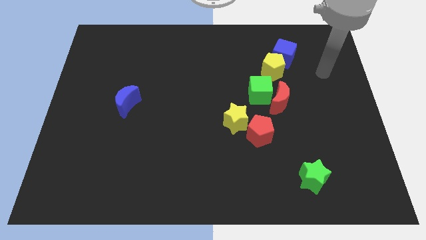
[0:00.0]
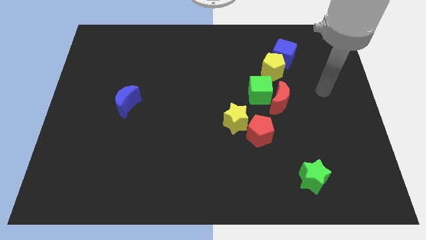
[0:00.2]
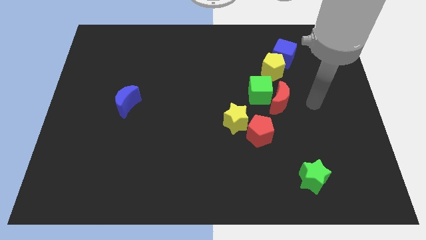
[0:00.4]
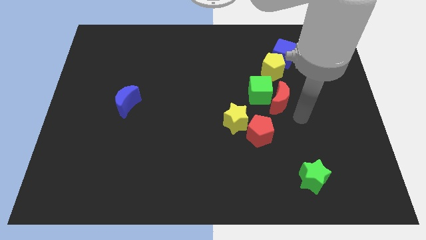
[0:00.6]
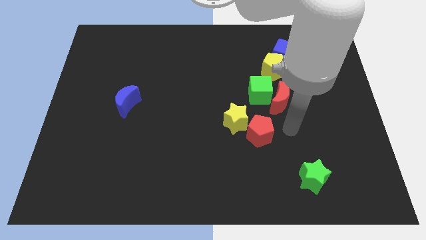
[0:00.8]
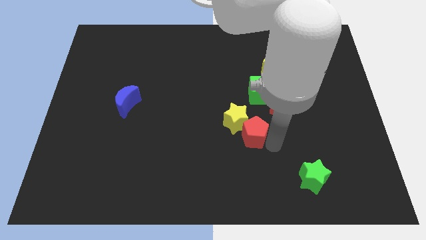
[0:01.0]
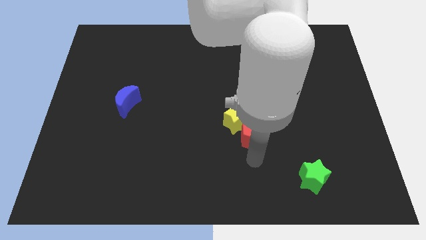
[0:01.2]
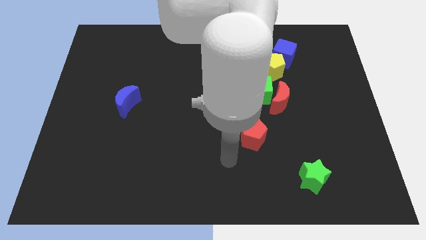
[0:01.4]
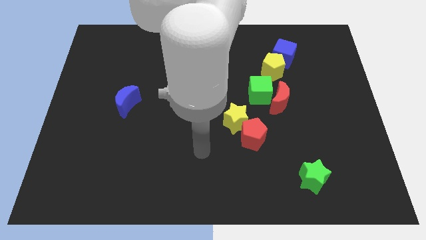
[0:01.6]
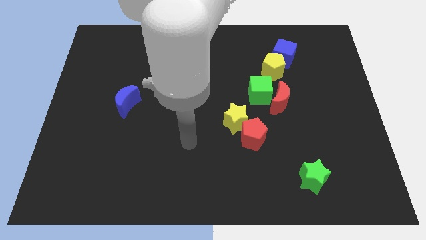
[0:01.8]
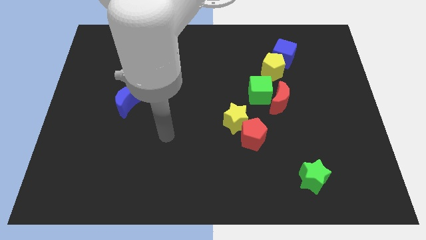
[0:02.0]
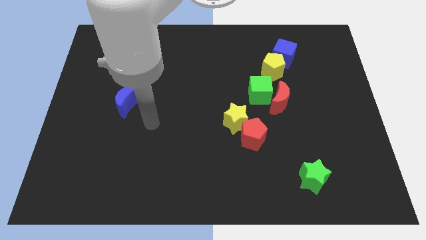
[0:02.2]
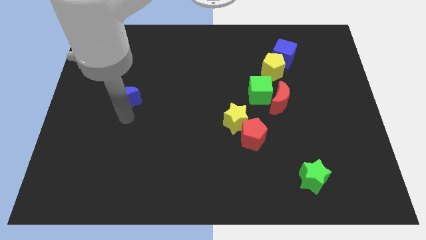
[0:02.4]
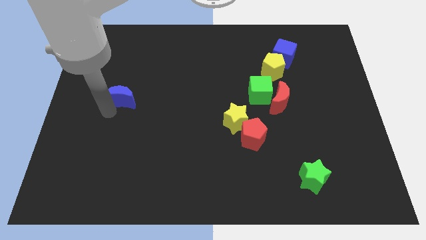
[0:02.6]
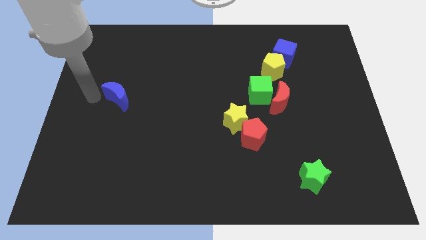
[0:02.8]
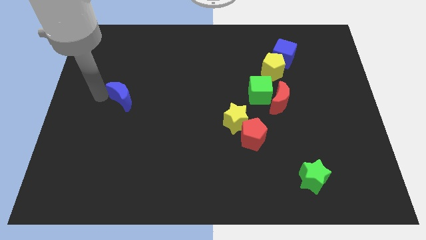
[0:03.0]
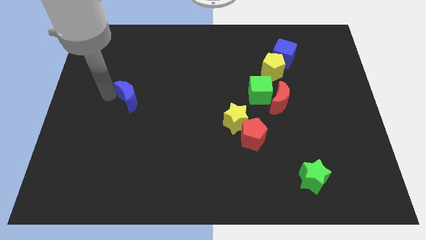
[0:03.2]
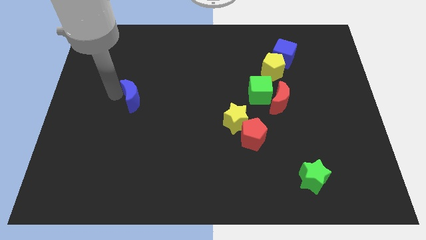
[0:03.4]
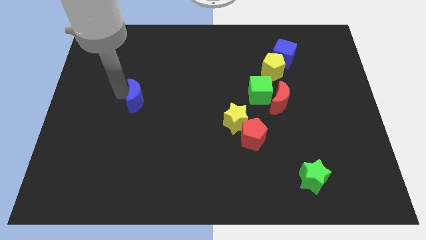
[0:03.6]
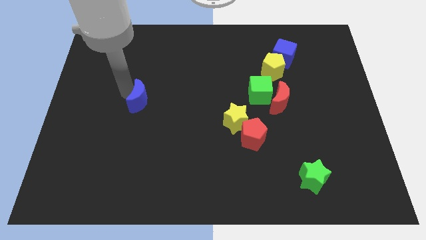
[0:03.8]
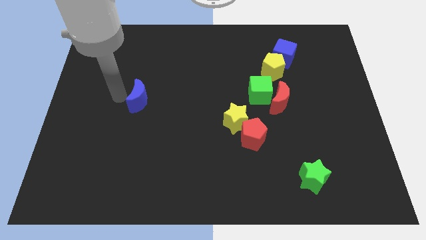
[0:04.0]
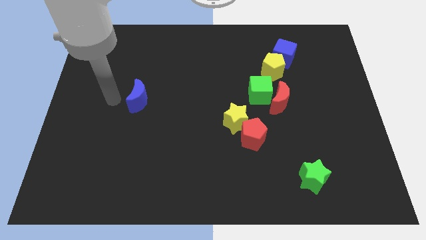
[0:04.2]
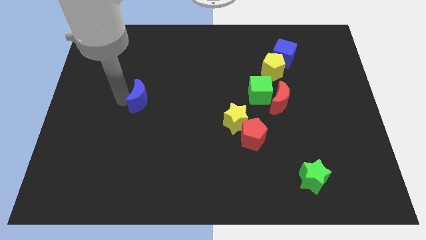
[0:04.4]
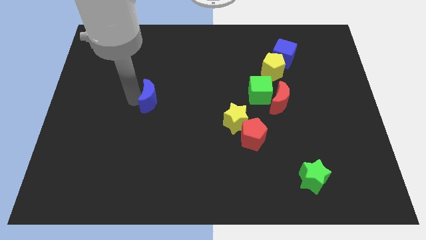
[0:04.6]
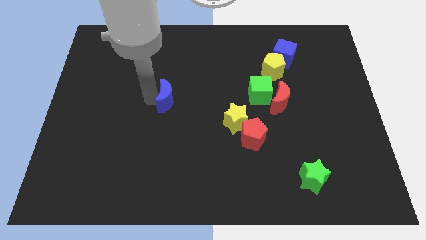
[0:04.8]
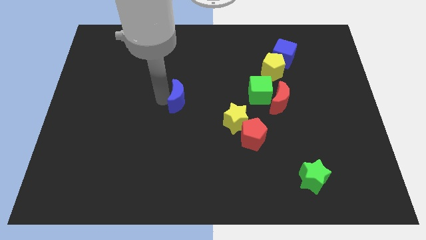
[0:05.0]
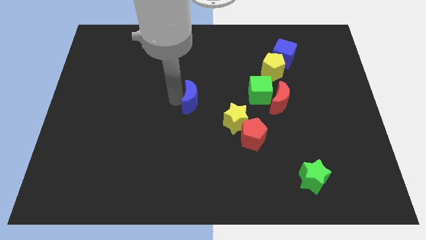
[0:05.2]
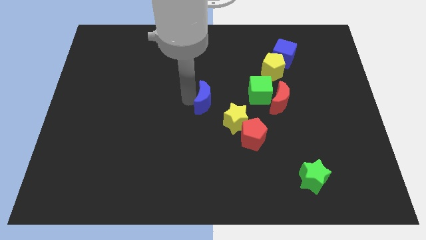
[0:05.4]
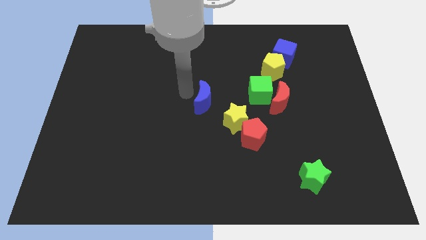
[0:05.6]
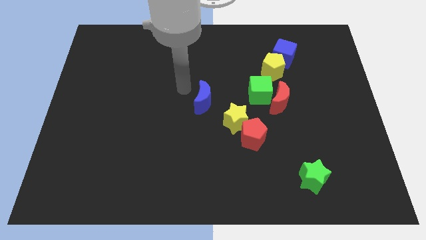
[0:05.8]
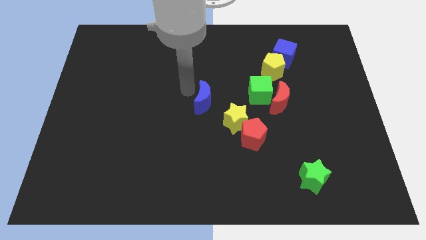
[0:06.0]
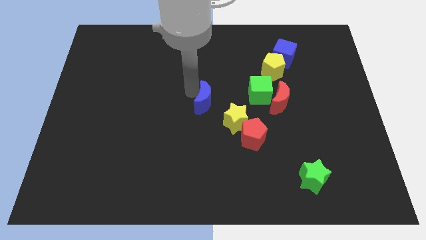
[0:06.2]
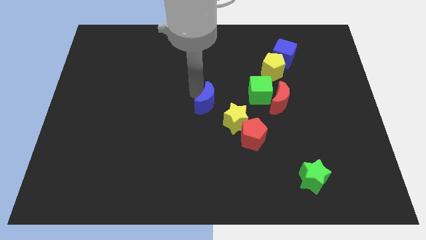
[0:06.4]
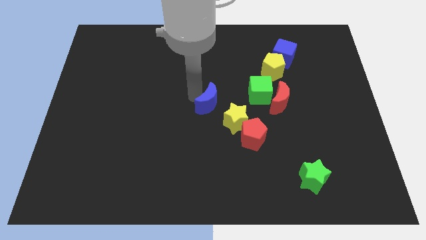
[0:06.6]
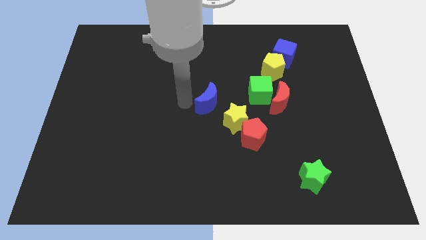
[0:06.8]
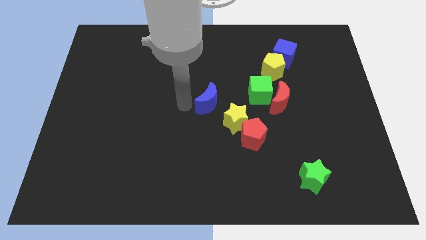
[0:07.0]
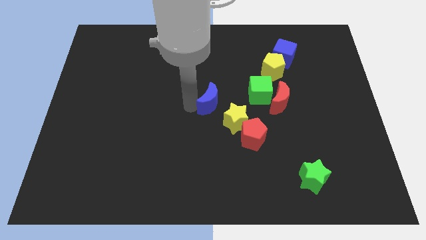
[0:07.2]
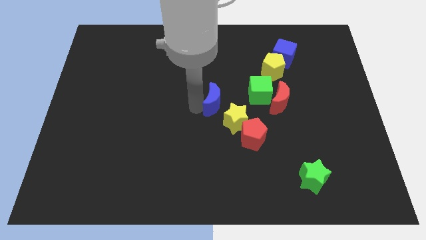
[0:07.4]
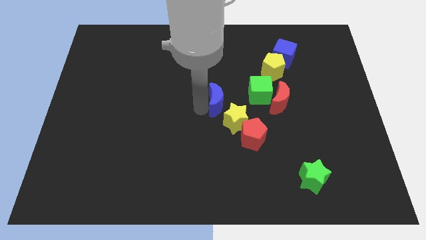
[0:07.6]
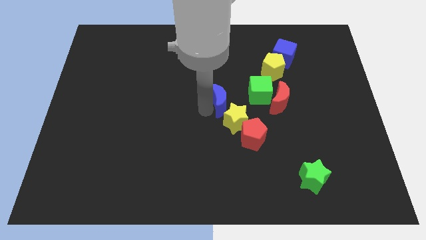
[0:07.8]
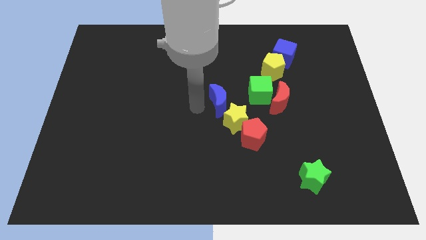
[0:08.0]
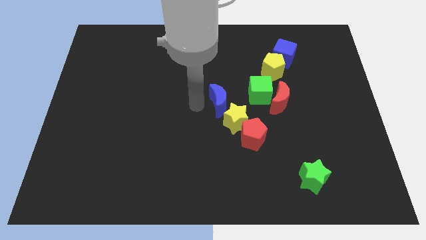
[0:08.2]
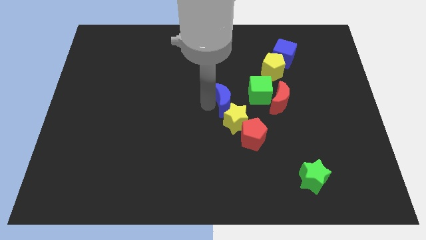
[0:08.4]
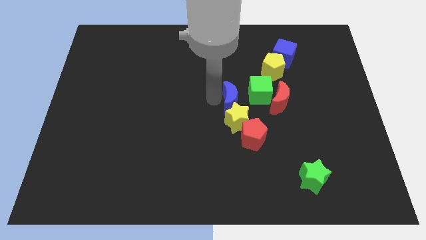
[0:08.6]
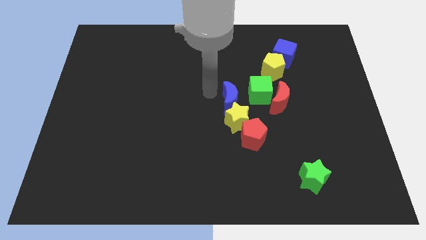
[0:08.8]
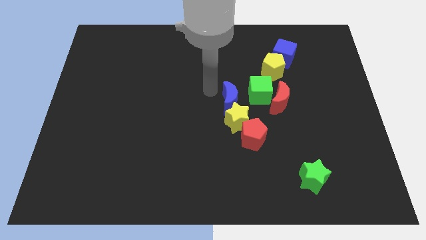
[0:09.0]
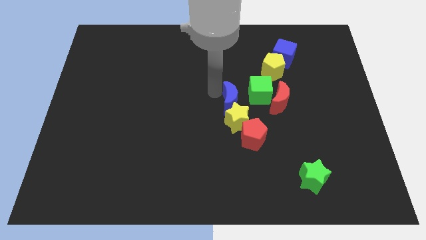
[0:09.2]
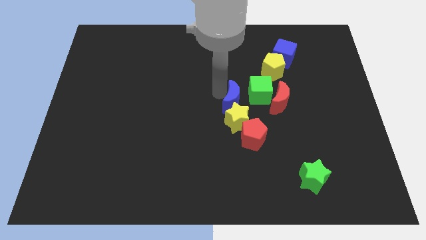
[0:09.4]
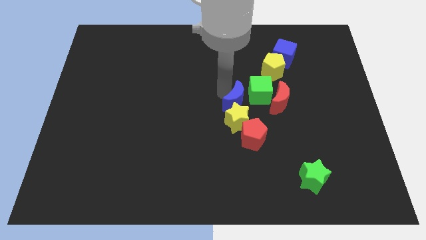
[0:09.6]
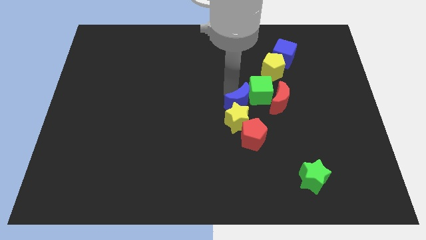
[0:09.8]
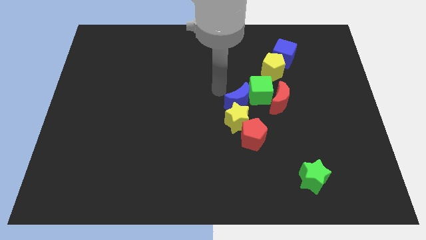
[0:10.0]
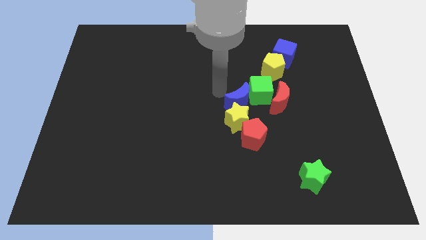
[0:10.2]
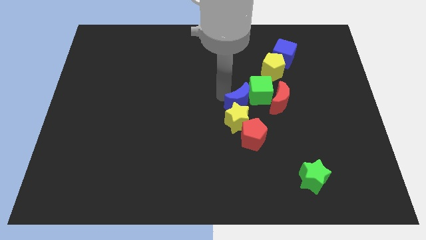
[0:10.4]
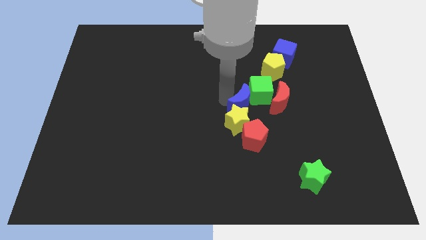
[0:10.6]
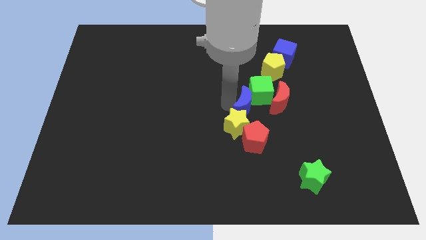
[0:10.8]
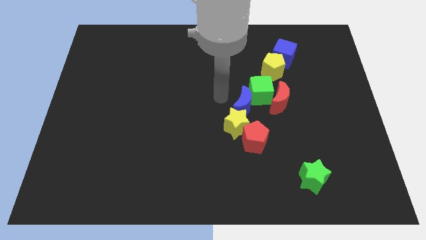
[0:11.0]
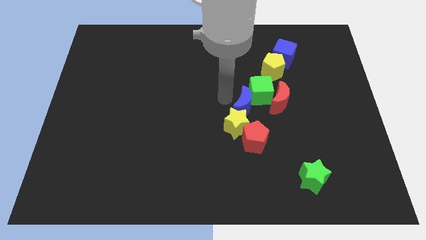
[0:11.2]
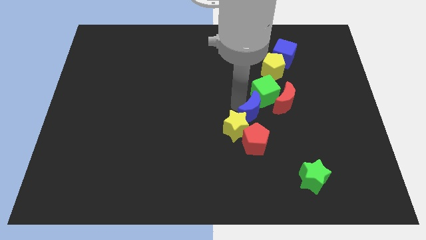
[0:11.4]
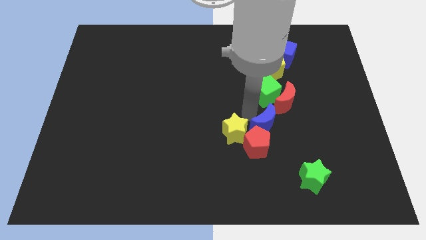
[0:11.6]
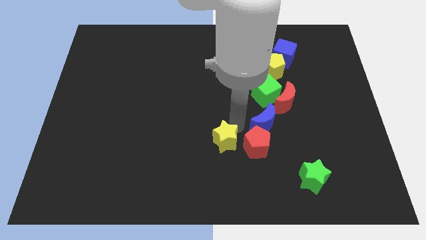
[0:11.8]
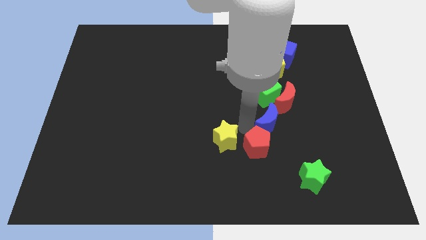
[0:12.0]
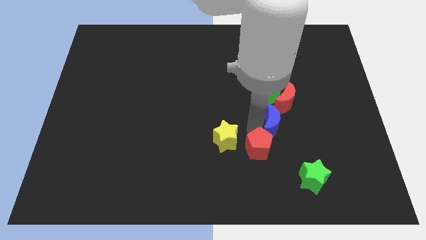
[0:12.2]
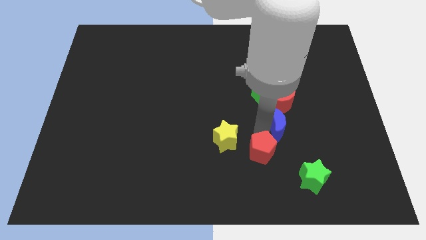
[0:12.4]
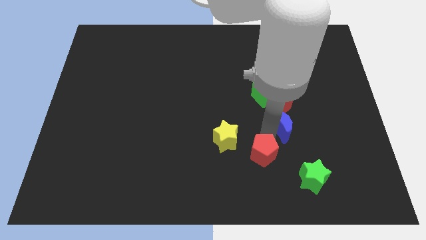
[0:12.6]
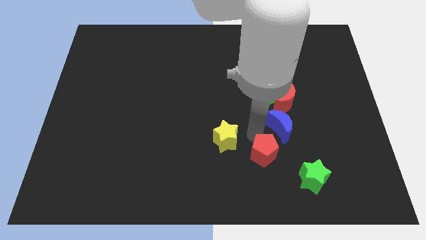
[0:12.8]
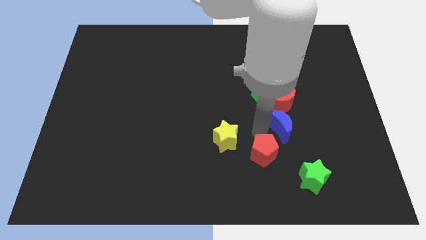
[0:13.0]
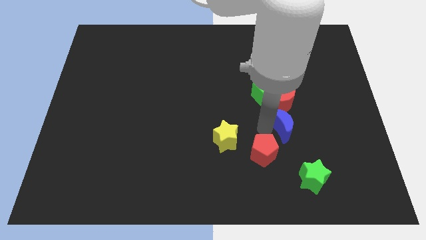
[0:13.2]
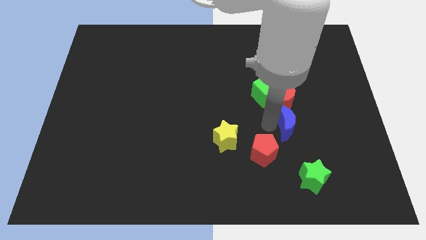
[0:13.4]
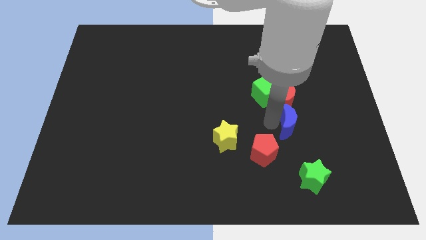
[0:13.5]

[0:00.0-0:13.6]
move the blue moon diagonally down and to the right of the red moon
